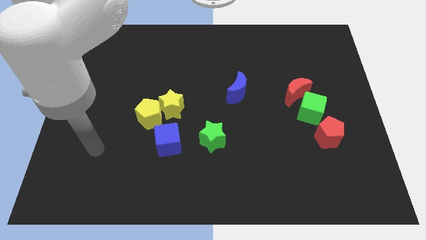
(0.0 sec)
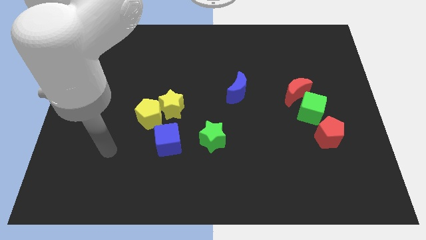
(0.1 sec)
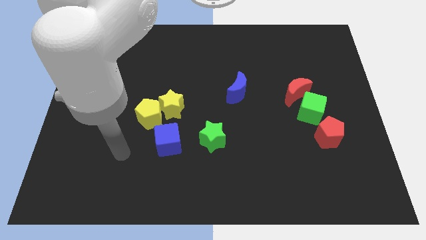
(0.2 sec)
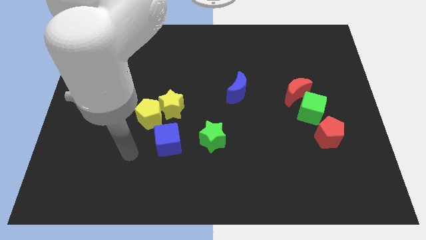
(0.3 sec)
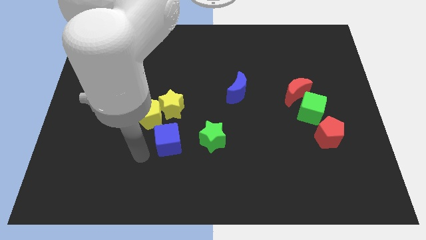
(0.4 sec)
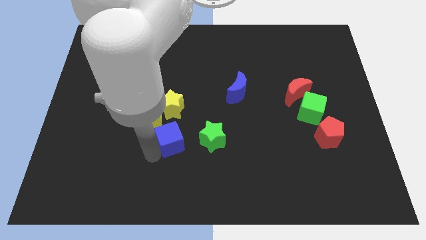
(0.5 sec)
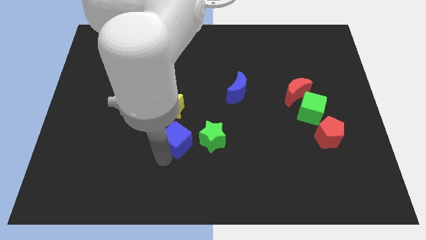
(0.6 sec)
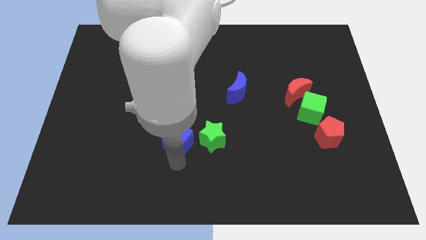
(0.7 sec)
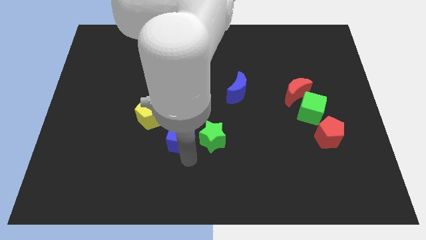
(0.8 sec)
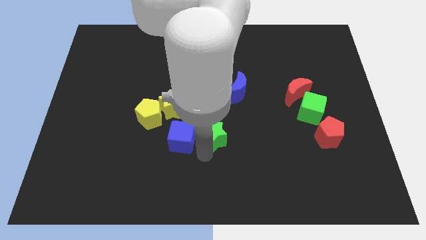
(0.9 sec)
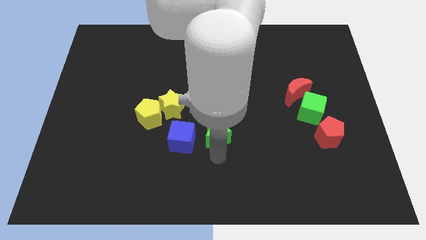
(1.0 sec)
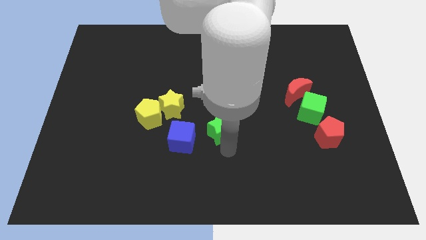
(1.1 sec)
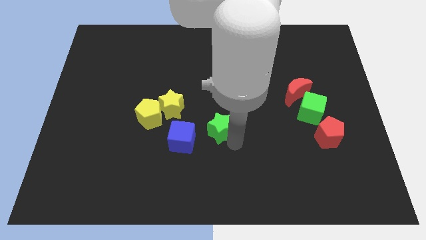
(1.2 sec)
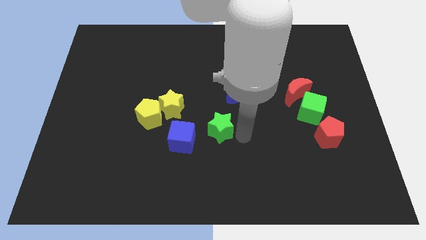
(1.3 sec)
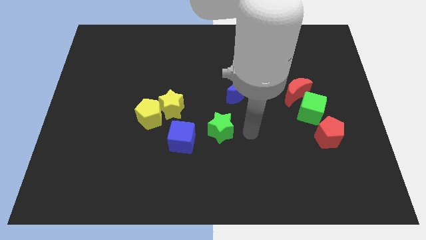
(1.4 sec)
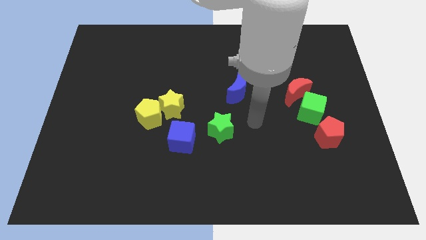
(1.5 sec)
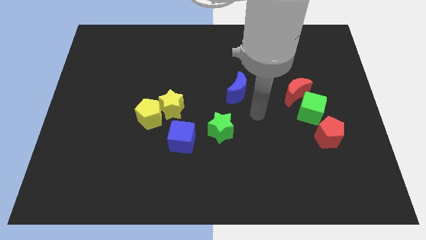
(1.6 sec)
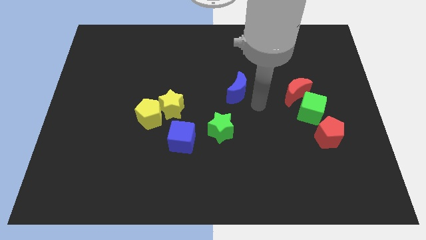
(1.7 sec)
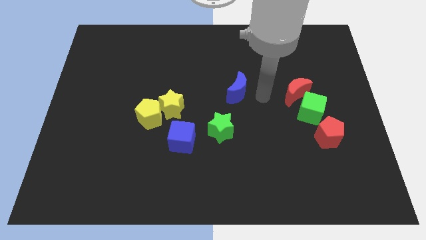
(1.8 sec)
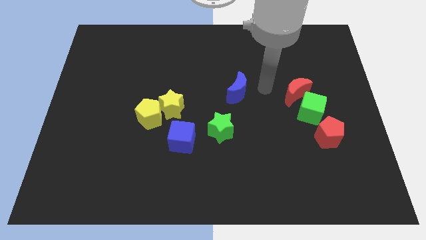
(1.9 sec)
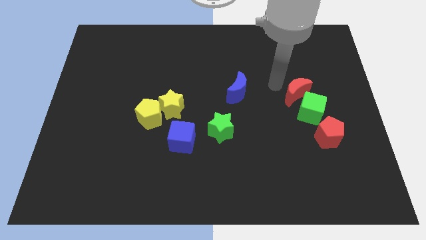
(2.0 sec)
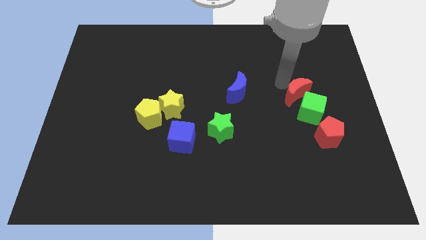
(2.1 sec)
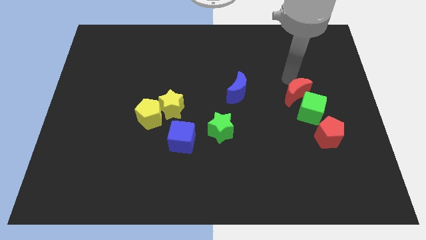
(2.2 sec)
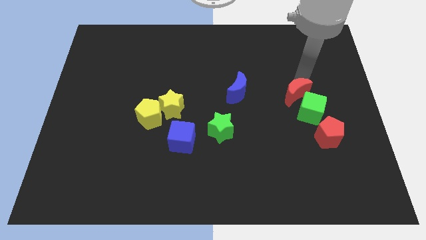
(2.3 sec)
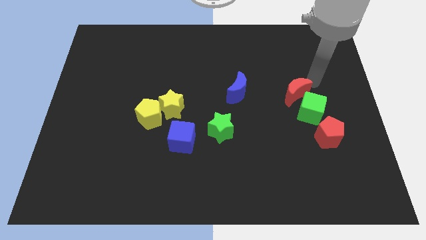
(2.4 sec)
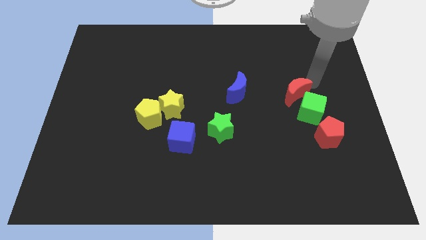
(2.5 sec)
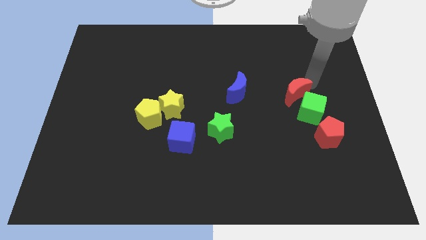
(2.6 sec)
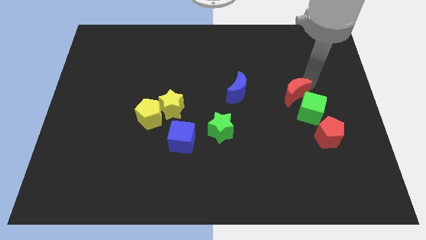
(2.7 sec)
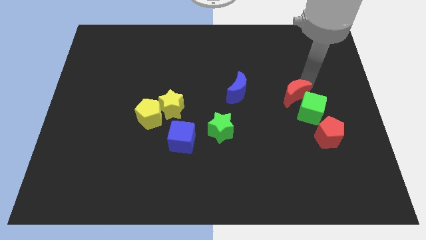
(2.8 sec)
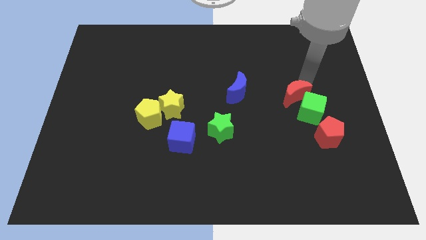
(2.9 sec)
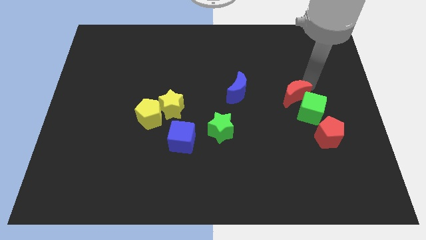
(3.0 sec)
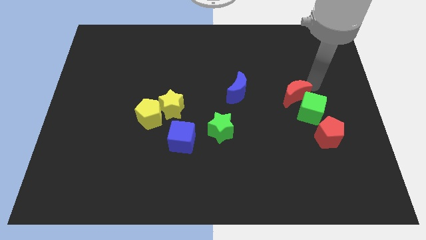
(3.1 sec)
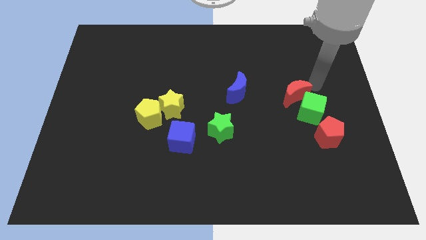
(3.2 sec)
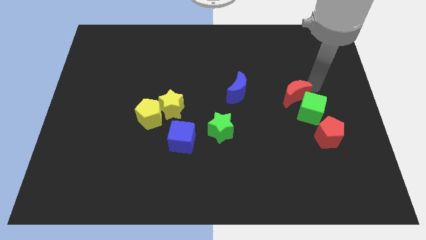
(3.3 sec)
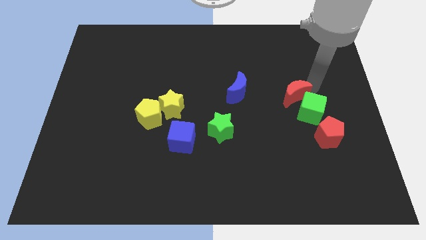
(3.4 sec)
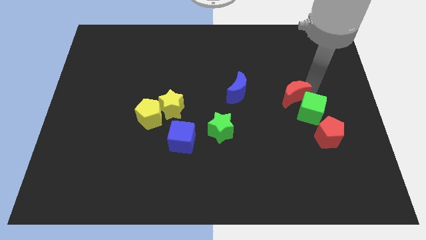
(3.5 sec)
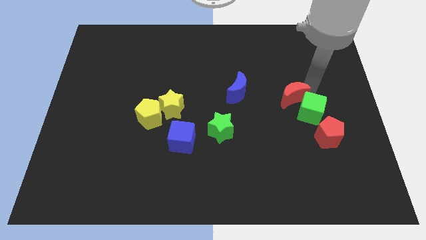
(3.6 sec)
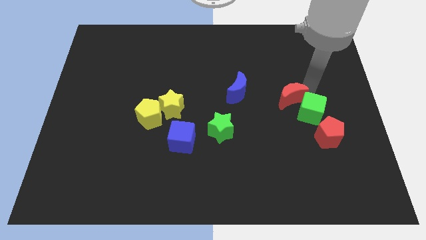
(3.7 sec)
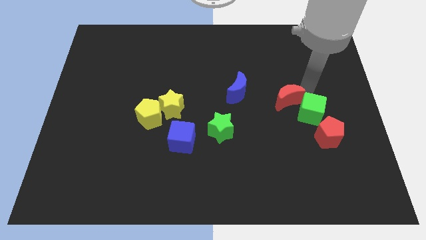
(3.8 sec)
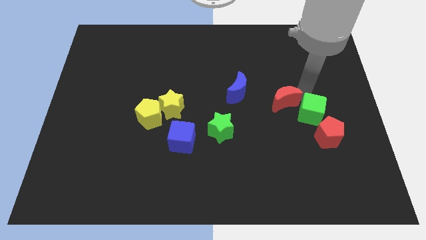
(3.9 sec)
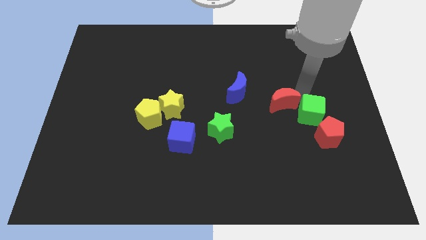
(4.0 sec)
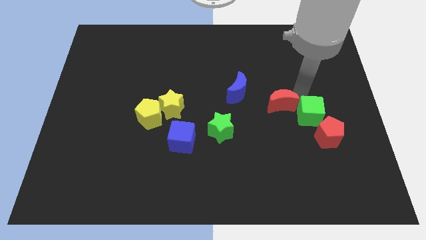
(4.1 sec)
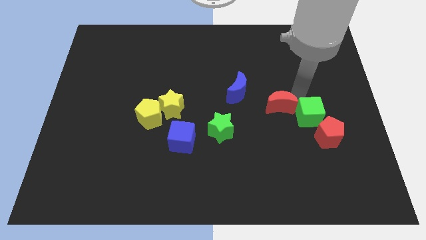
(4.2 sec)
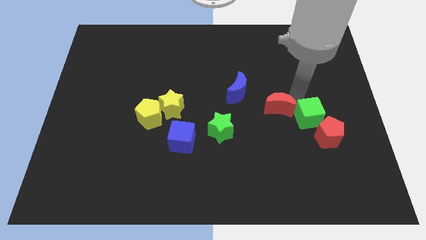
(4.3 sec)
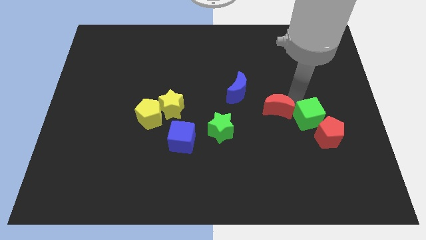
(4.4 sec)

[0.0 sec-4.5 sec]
slightly slide the red moon diagonally down and to the left

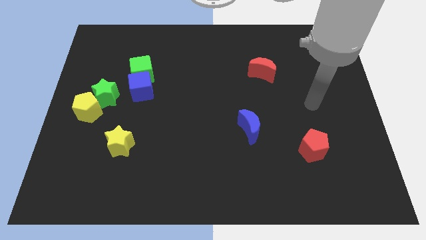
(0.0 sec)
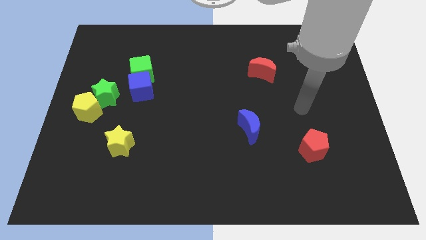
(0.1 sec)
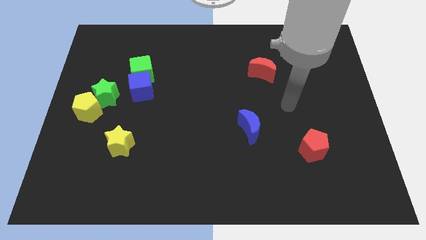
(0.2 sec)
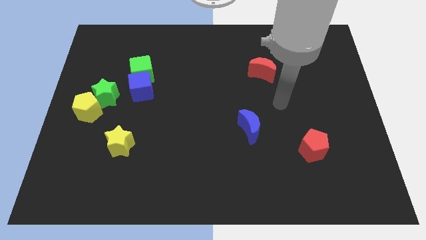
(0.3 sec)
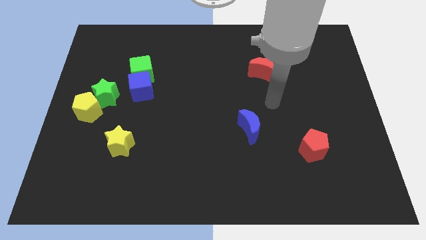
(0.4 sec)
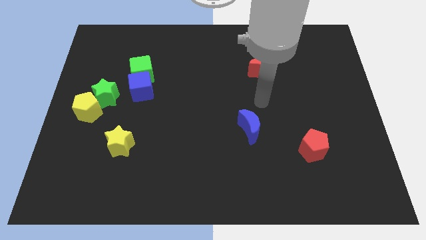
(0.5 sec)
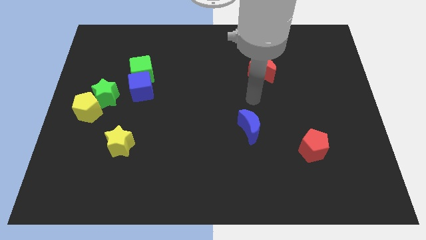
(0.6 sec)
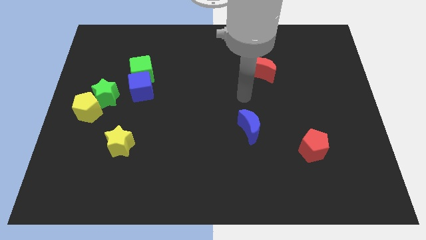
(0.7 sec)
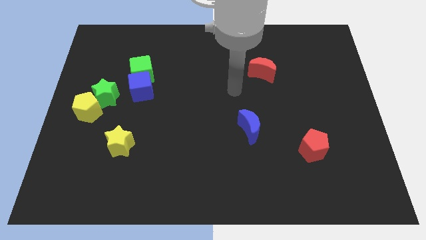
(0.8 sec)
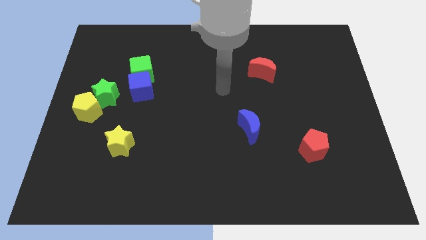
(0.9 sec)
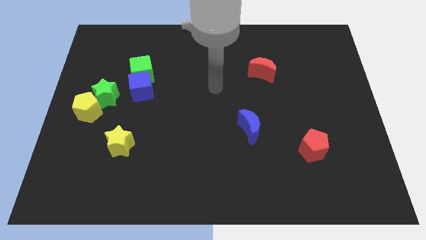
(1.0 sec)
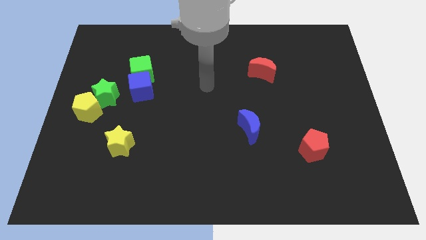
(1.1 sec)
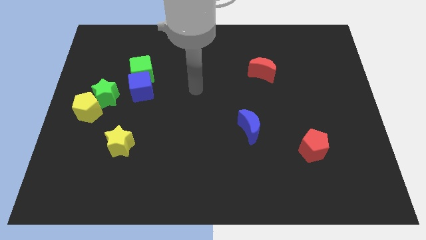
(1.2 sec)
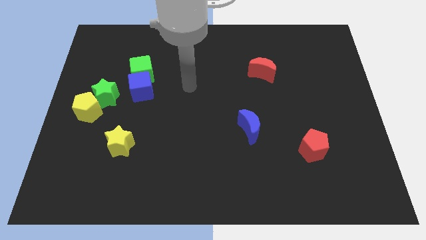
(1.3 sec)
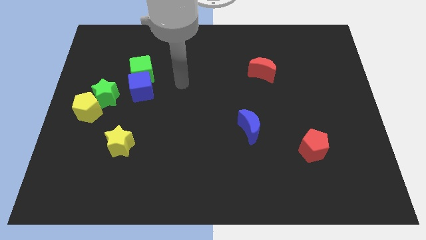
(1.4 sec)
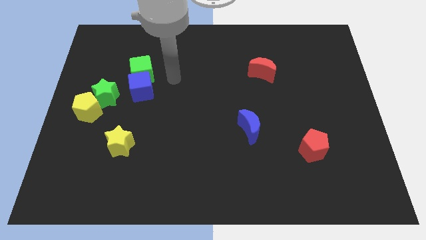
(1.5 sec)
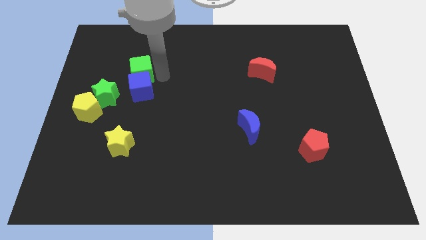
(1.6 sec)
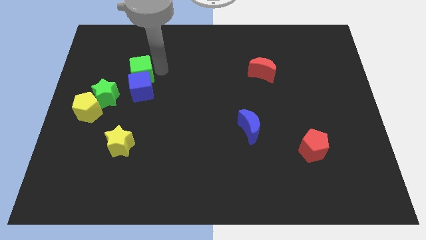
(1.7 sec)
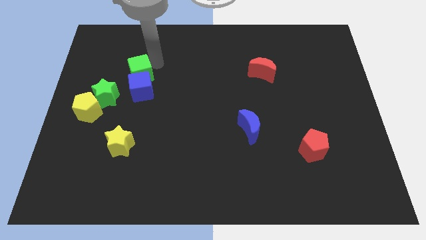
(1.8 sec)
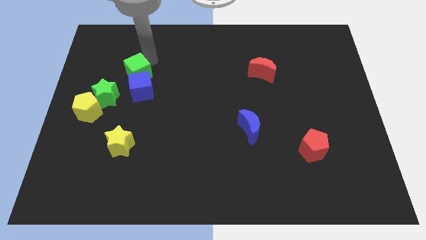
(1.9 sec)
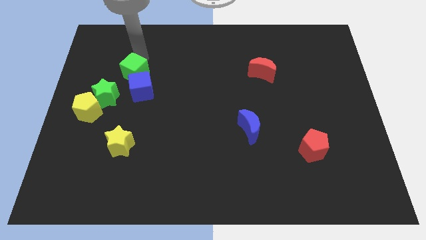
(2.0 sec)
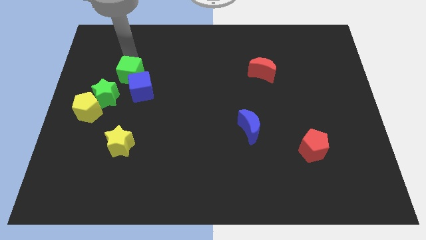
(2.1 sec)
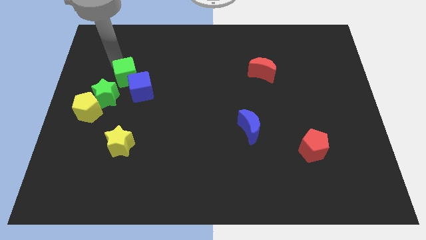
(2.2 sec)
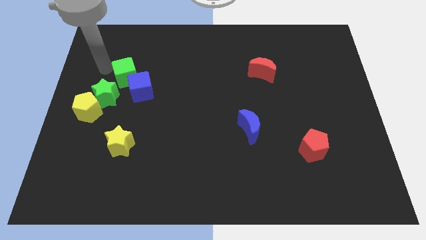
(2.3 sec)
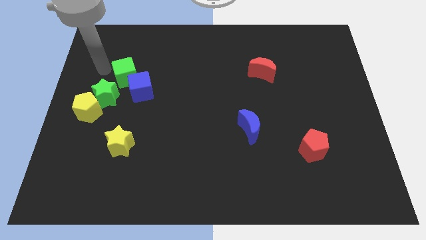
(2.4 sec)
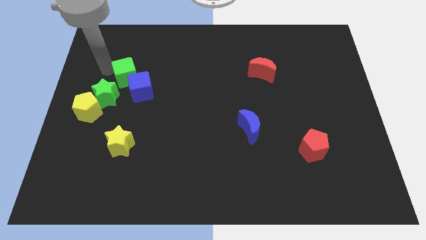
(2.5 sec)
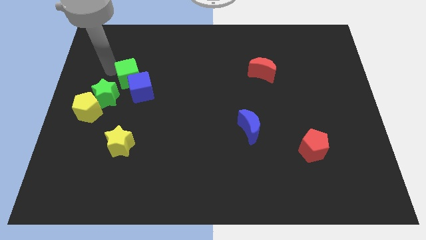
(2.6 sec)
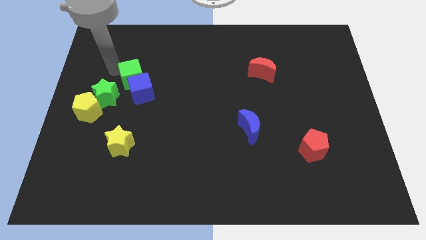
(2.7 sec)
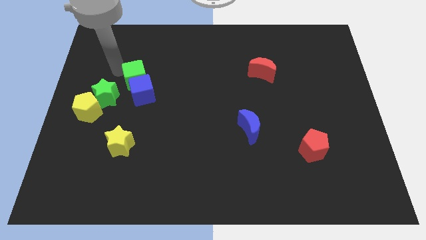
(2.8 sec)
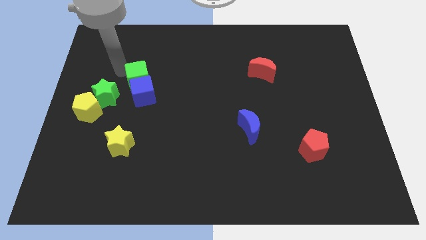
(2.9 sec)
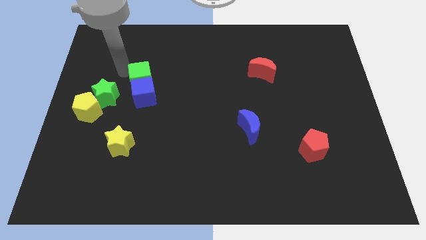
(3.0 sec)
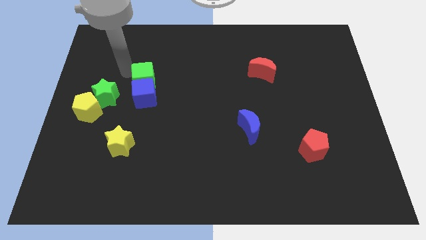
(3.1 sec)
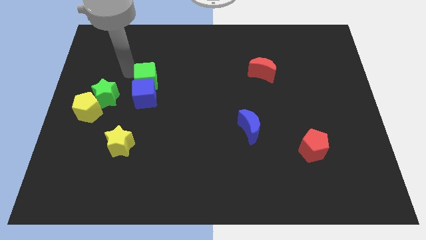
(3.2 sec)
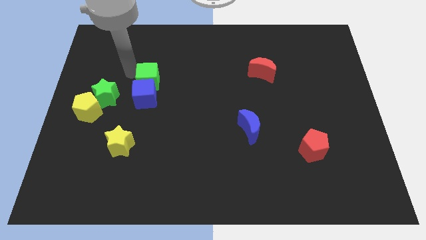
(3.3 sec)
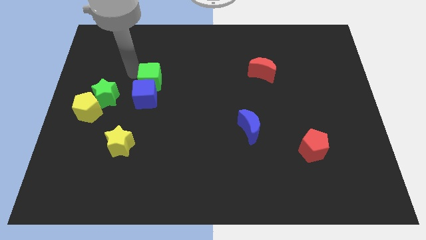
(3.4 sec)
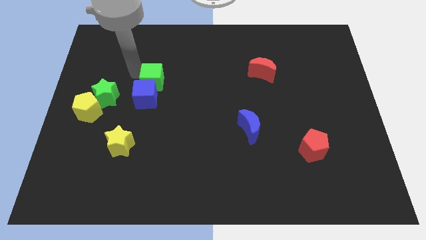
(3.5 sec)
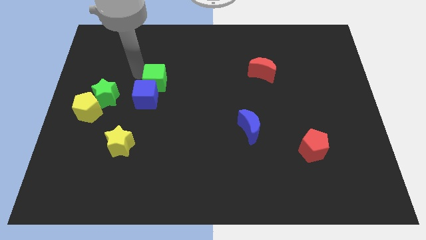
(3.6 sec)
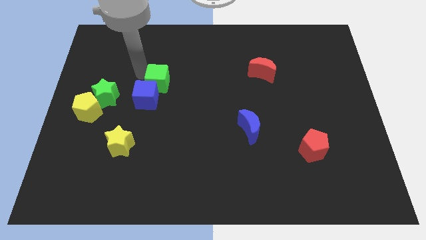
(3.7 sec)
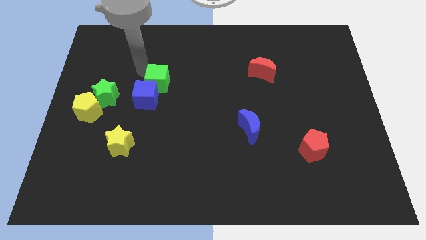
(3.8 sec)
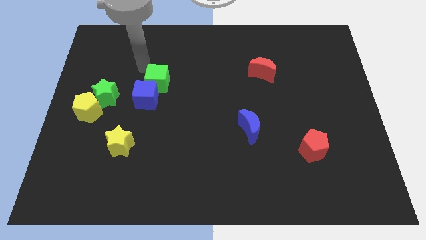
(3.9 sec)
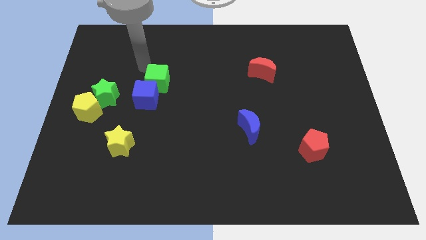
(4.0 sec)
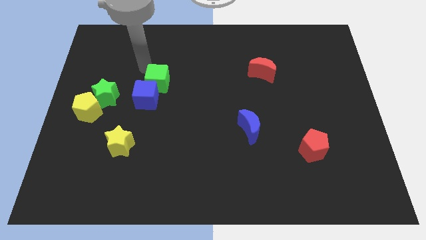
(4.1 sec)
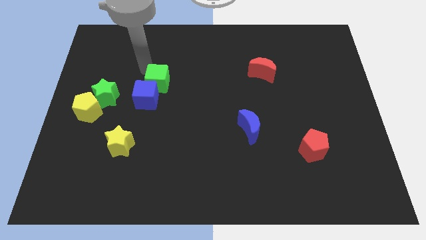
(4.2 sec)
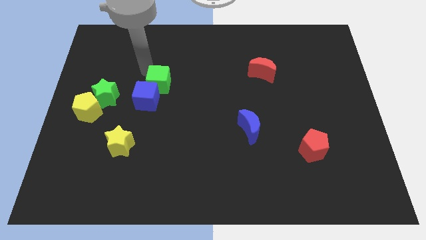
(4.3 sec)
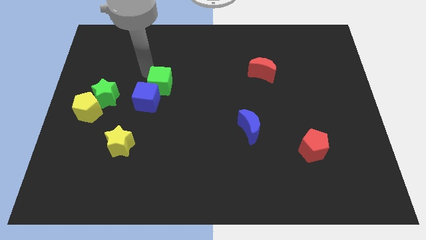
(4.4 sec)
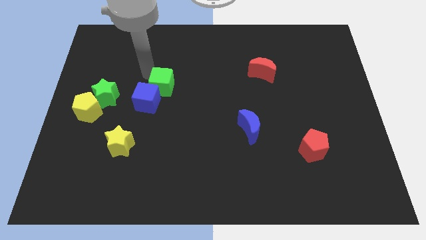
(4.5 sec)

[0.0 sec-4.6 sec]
slide the green cube a little downwards and right diagonally
